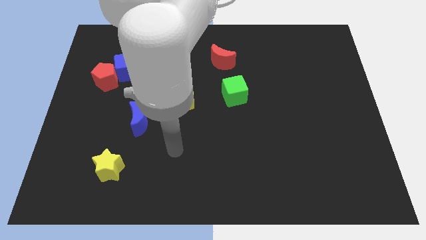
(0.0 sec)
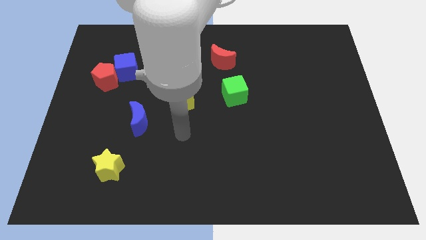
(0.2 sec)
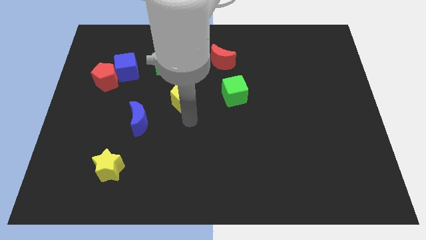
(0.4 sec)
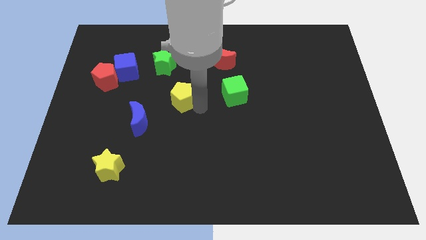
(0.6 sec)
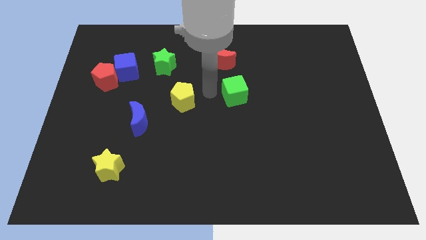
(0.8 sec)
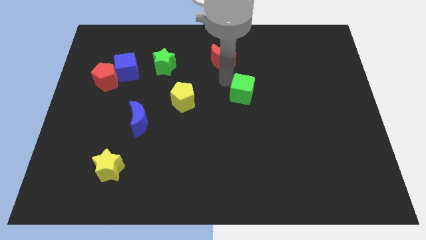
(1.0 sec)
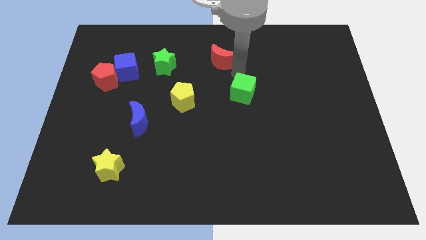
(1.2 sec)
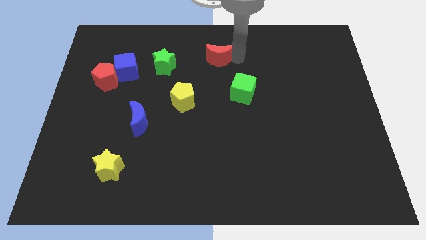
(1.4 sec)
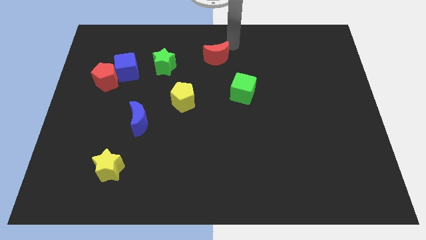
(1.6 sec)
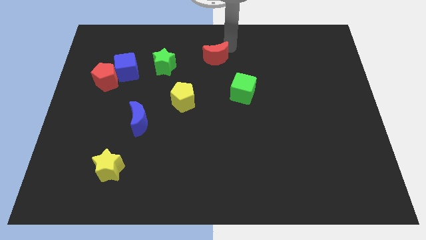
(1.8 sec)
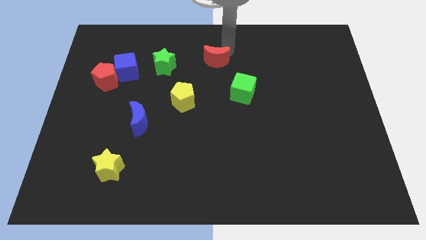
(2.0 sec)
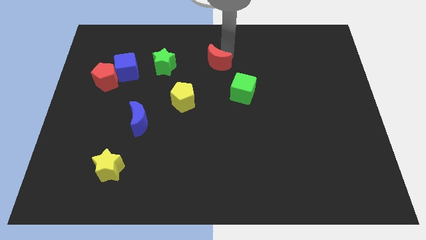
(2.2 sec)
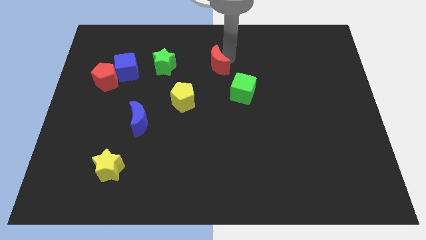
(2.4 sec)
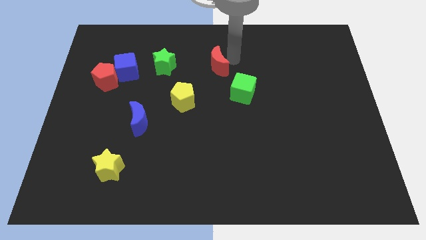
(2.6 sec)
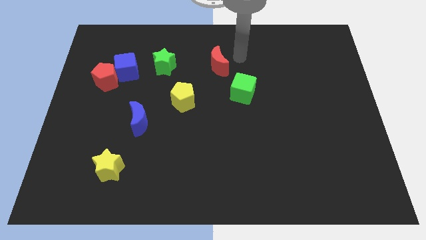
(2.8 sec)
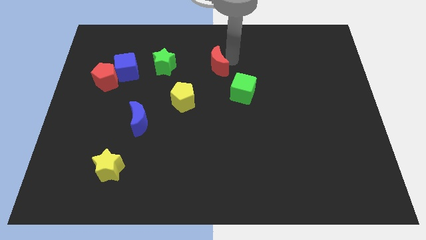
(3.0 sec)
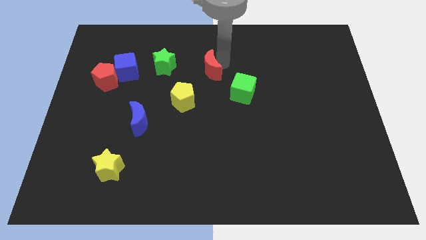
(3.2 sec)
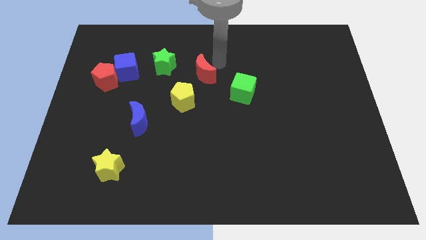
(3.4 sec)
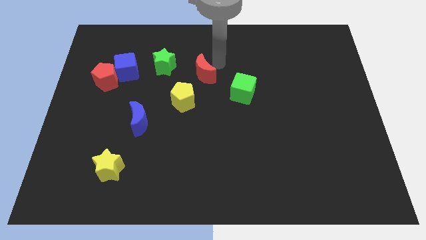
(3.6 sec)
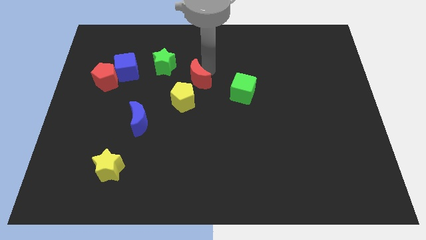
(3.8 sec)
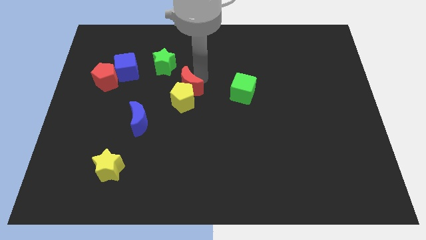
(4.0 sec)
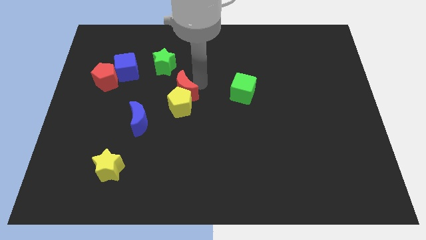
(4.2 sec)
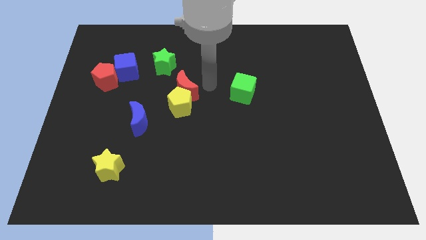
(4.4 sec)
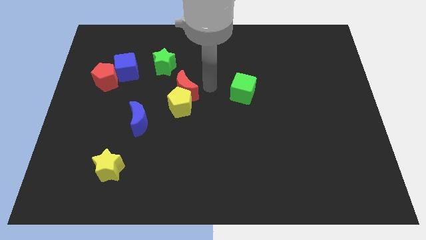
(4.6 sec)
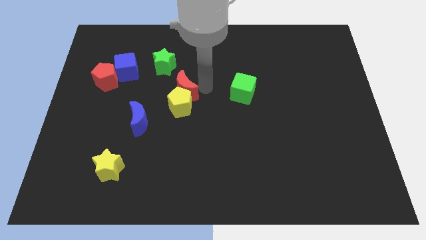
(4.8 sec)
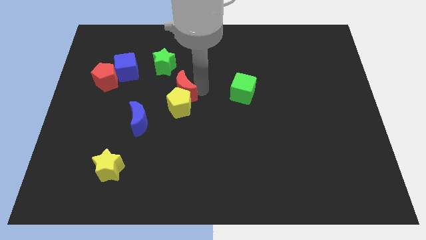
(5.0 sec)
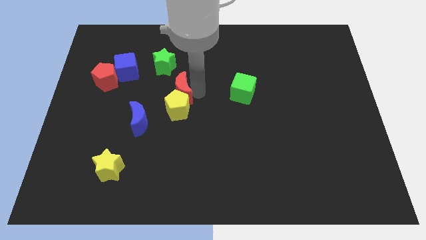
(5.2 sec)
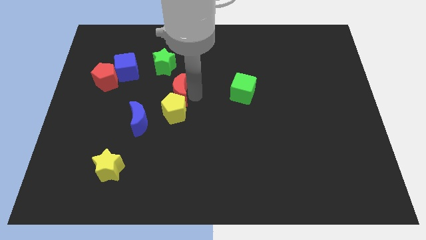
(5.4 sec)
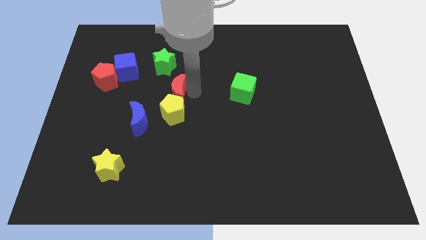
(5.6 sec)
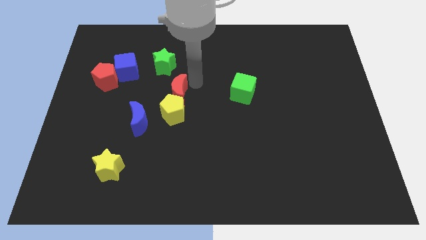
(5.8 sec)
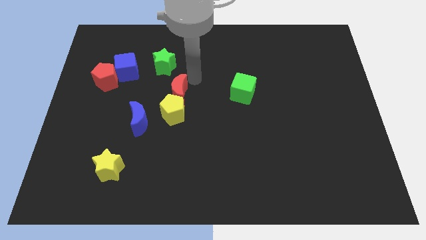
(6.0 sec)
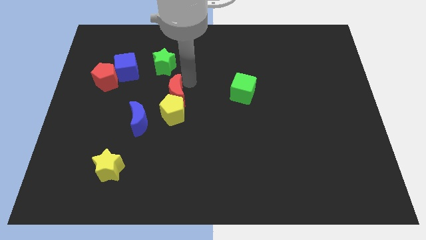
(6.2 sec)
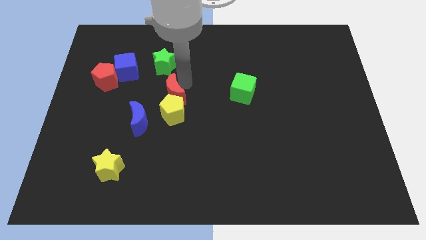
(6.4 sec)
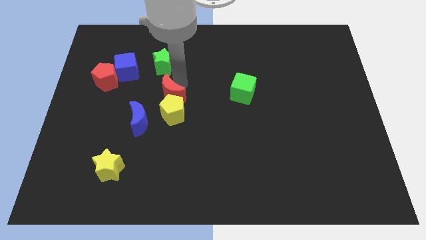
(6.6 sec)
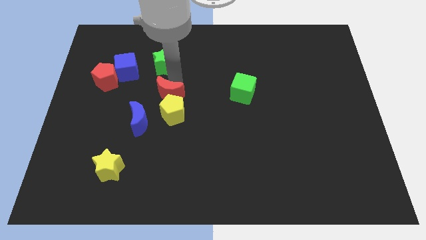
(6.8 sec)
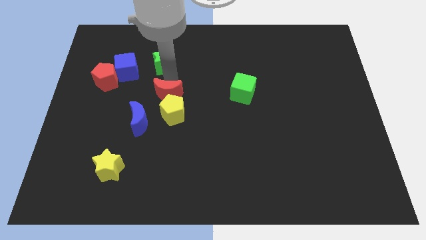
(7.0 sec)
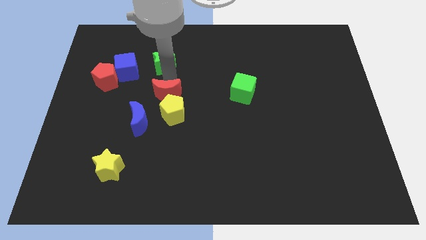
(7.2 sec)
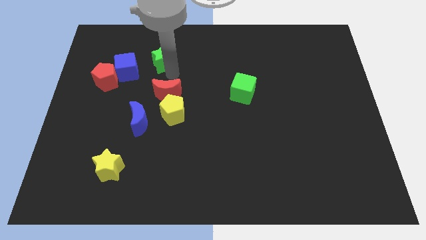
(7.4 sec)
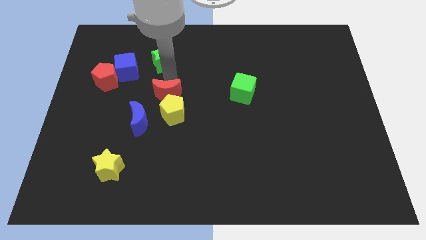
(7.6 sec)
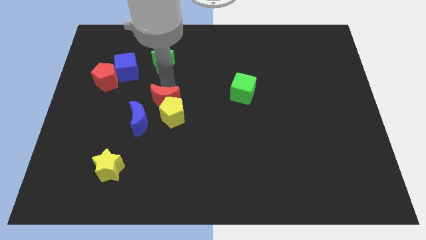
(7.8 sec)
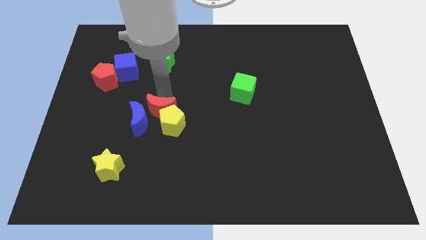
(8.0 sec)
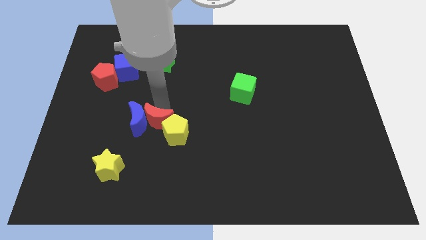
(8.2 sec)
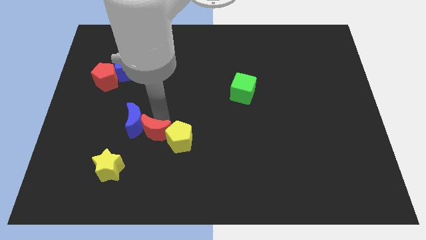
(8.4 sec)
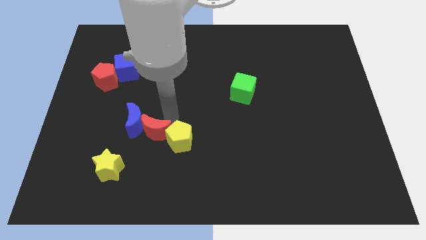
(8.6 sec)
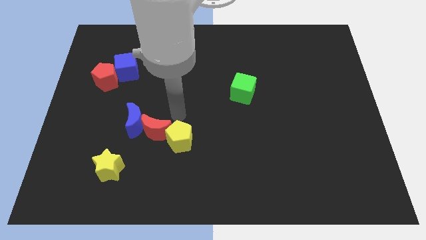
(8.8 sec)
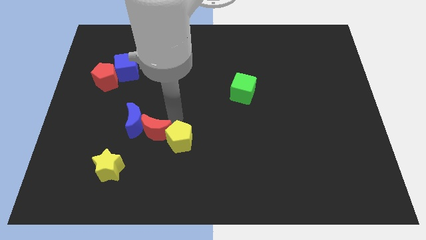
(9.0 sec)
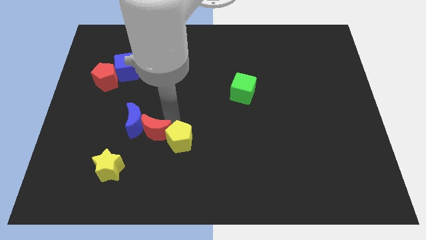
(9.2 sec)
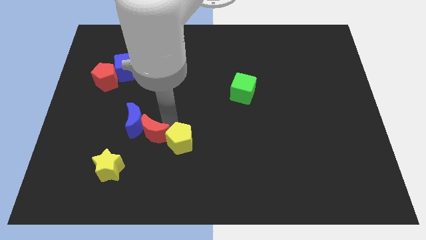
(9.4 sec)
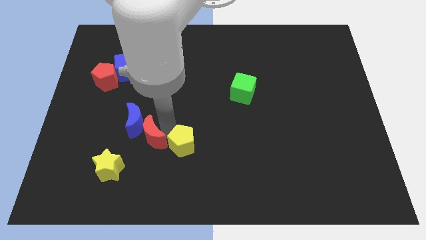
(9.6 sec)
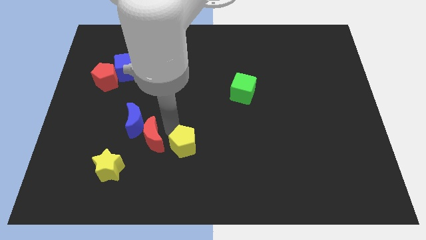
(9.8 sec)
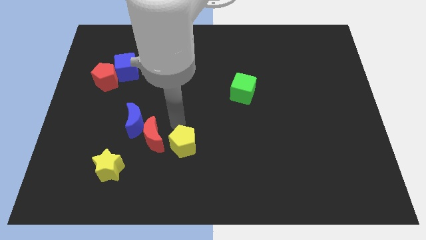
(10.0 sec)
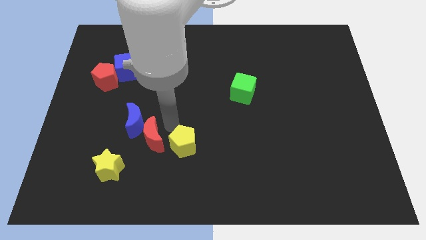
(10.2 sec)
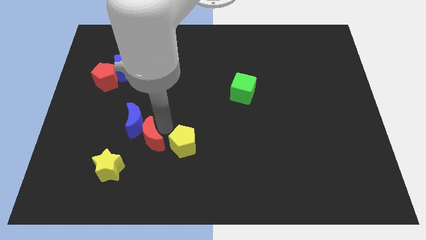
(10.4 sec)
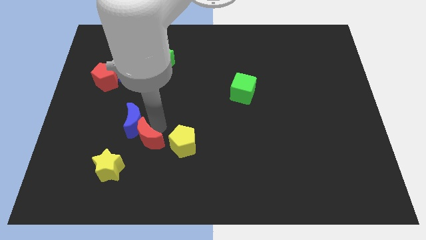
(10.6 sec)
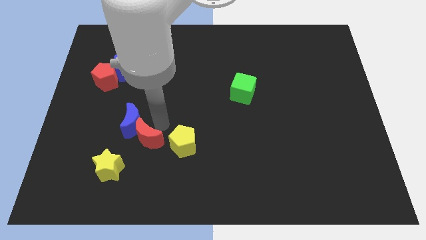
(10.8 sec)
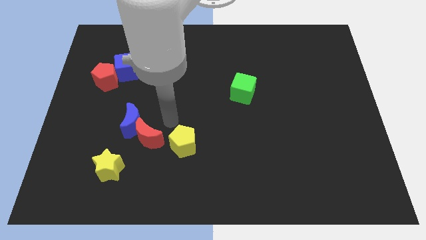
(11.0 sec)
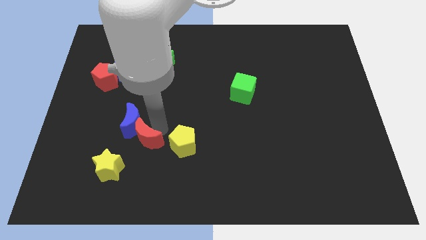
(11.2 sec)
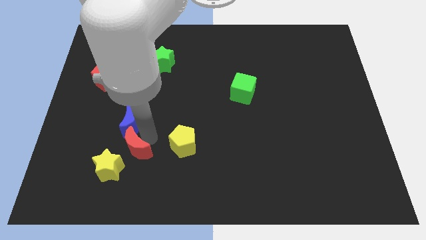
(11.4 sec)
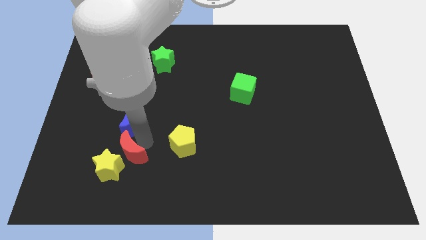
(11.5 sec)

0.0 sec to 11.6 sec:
slide the red moon to the yellow star

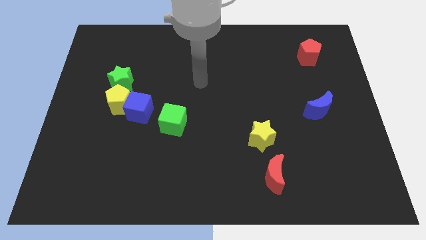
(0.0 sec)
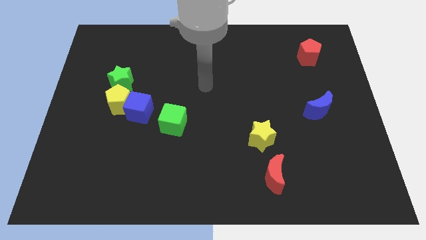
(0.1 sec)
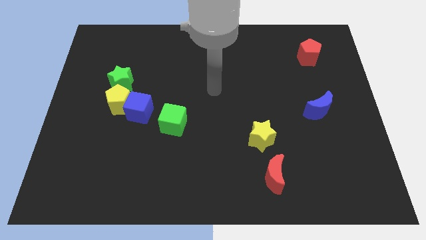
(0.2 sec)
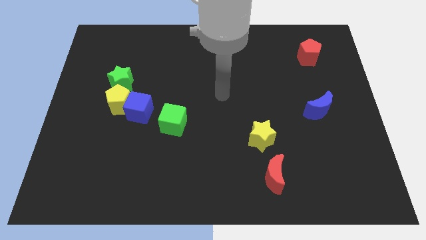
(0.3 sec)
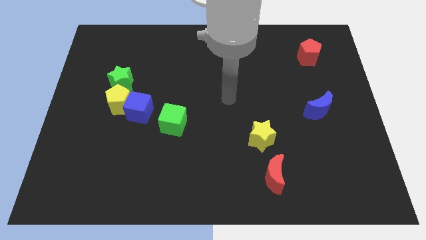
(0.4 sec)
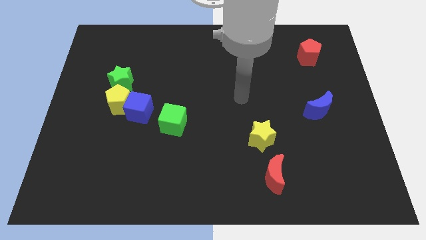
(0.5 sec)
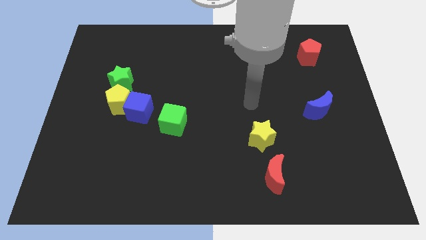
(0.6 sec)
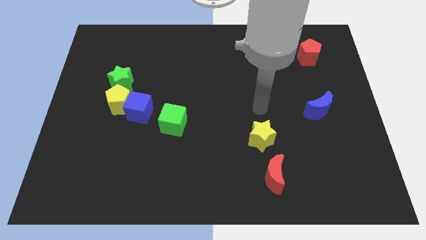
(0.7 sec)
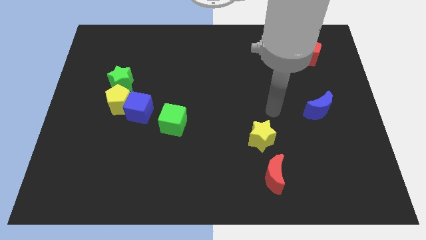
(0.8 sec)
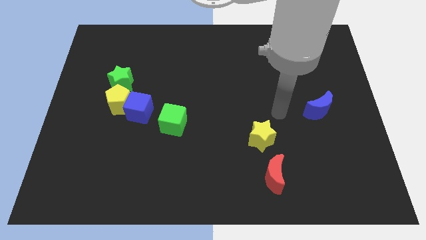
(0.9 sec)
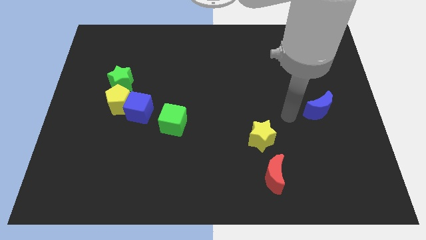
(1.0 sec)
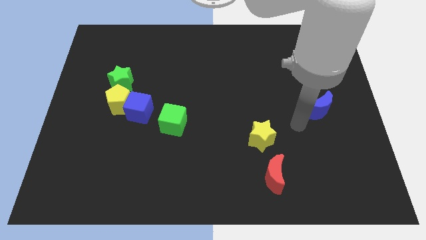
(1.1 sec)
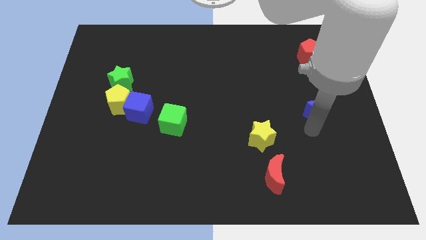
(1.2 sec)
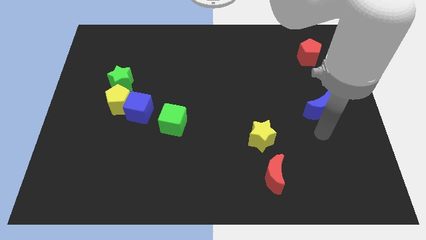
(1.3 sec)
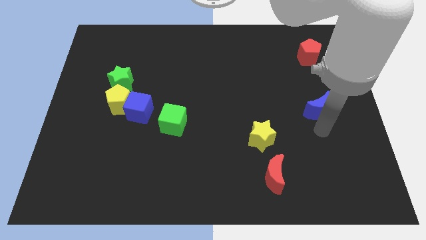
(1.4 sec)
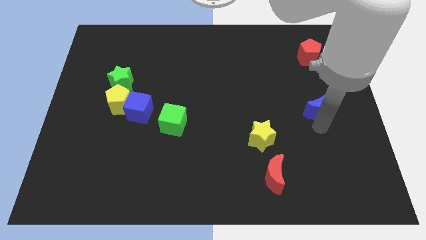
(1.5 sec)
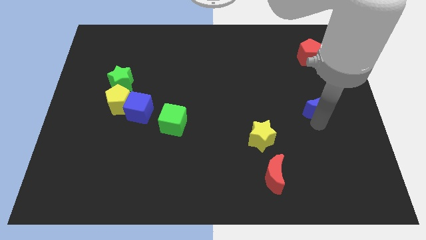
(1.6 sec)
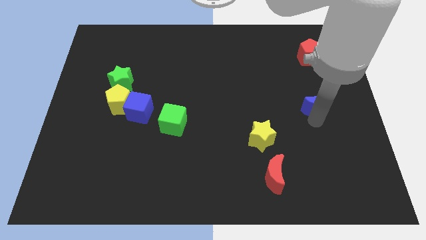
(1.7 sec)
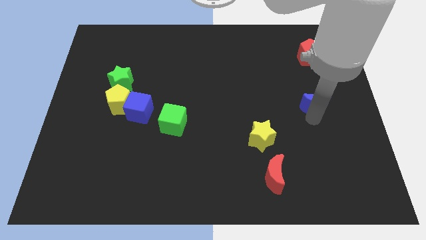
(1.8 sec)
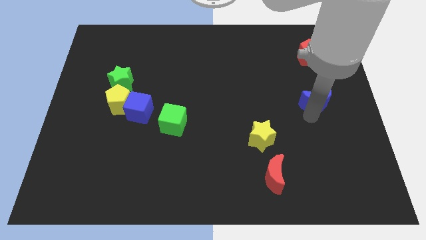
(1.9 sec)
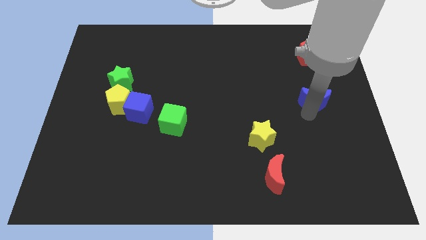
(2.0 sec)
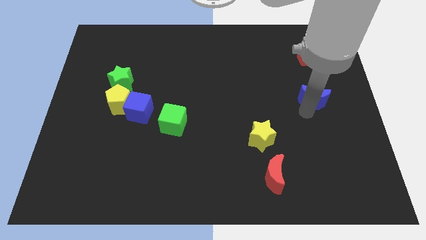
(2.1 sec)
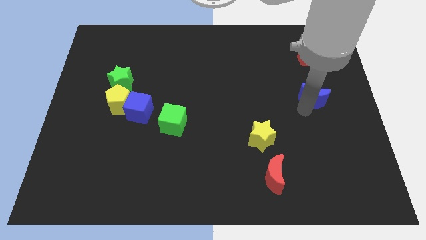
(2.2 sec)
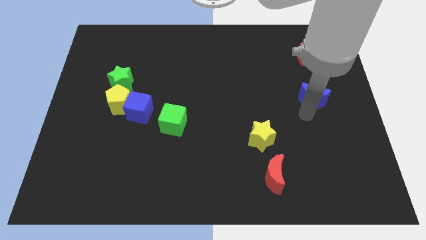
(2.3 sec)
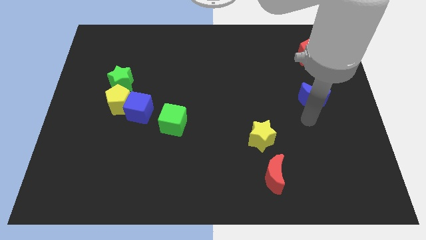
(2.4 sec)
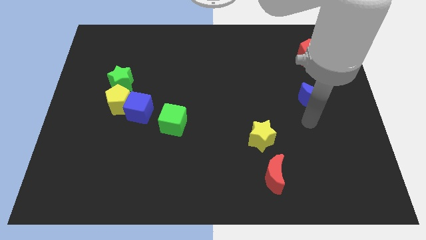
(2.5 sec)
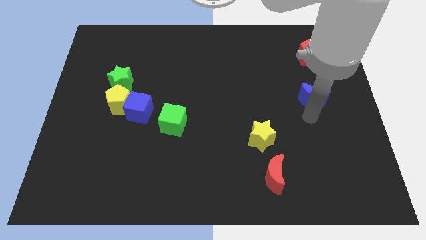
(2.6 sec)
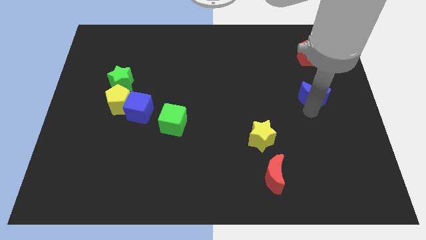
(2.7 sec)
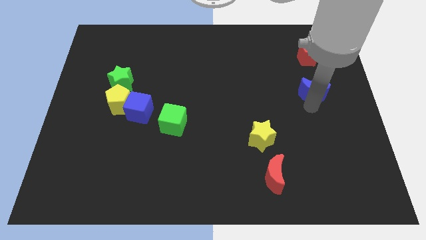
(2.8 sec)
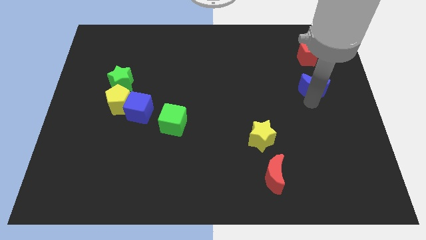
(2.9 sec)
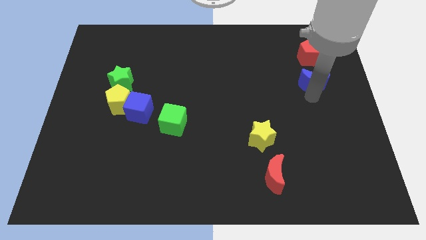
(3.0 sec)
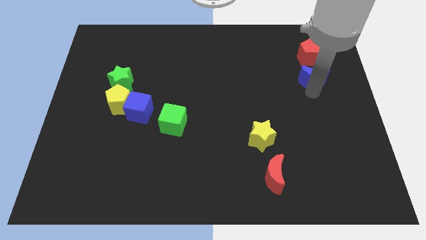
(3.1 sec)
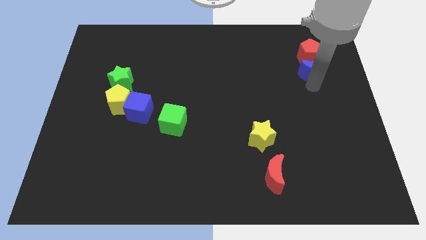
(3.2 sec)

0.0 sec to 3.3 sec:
put the blue moon close to the red pentagon
